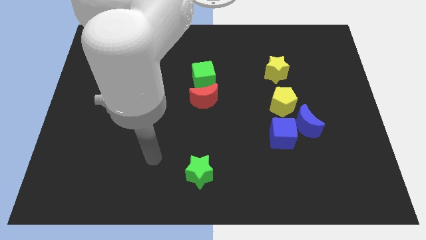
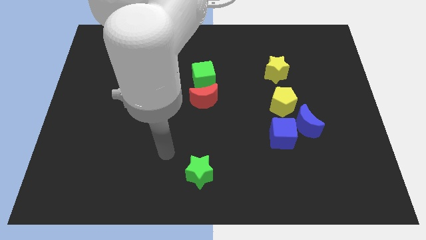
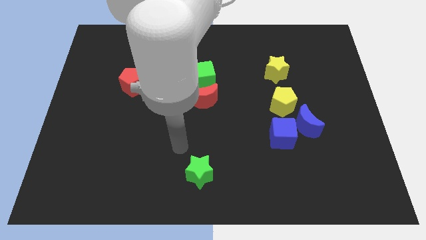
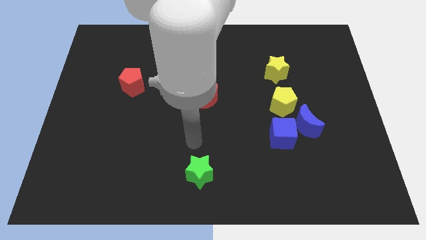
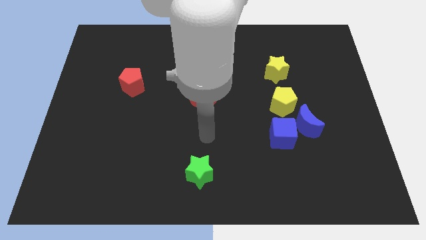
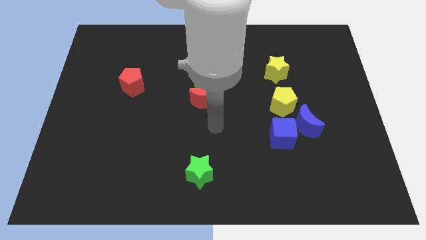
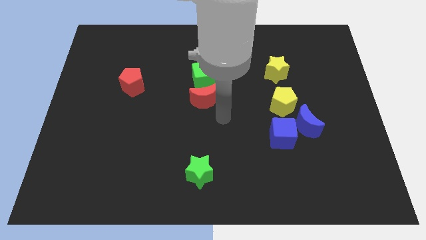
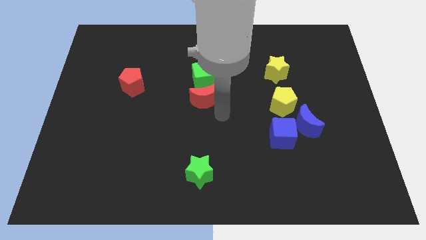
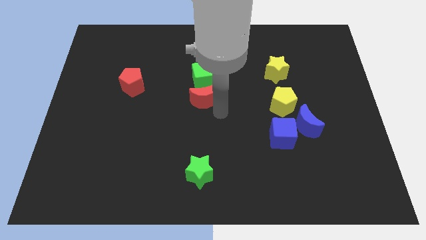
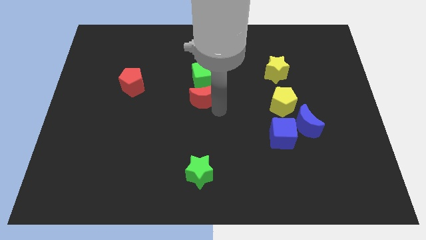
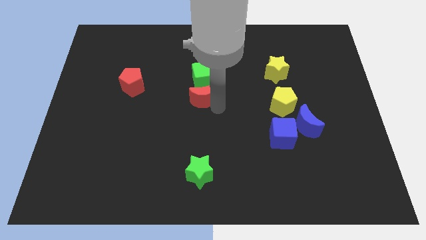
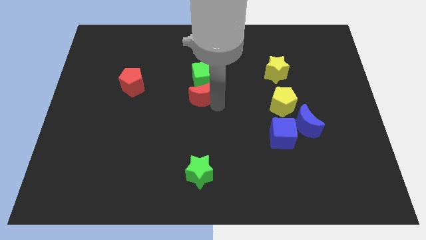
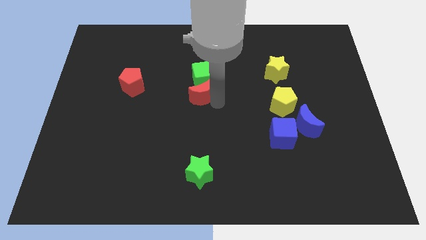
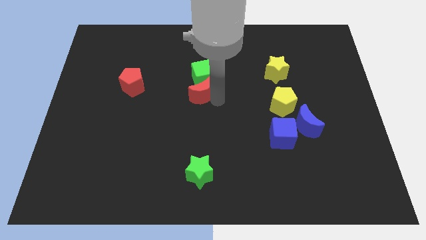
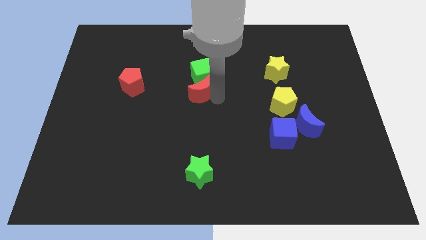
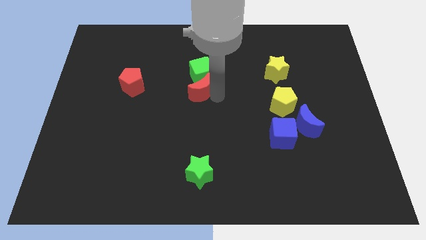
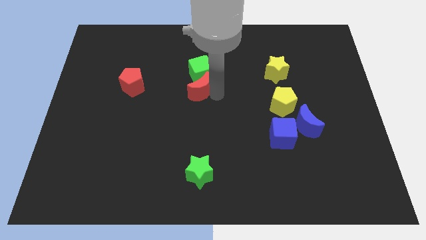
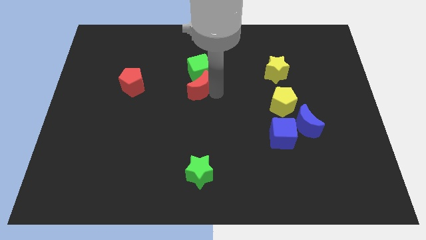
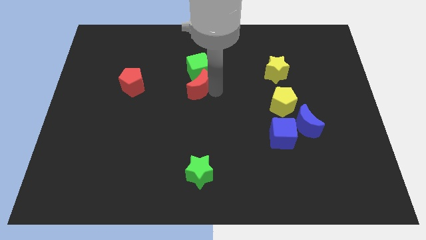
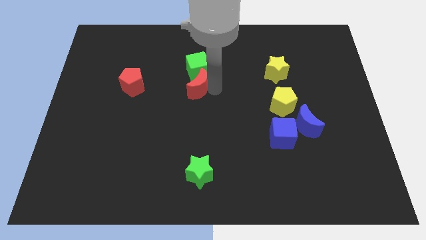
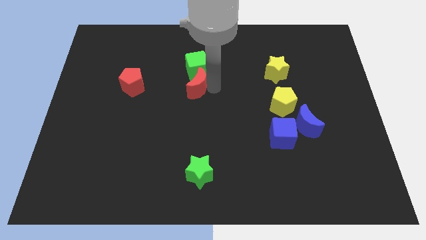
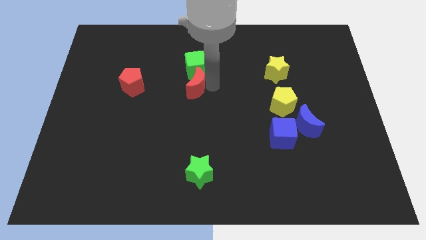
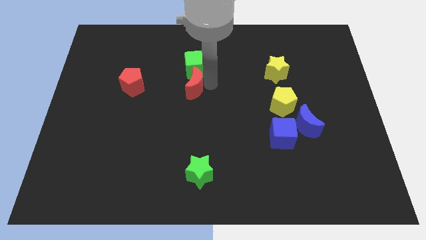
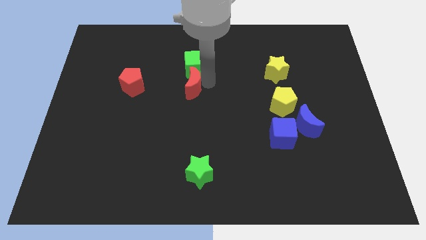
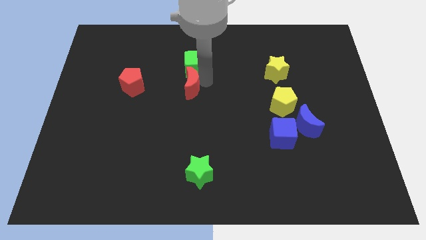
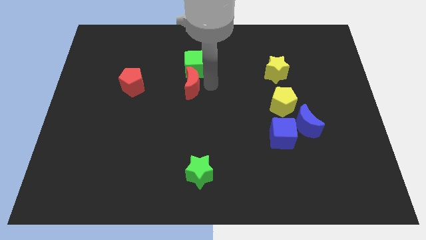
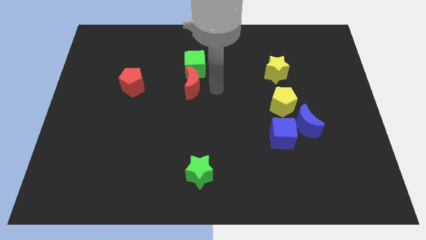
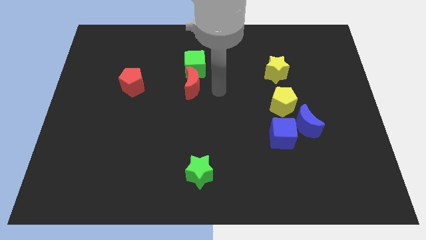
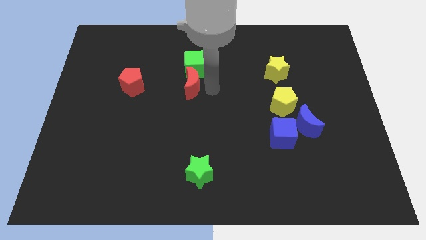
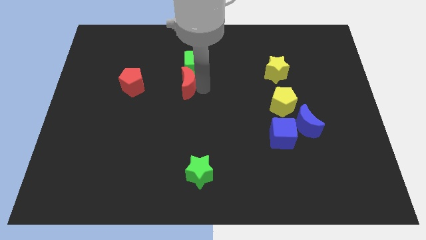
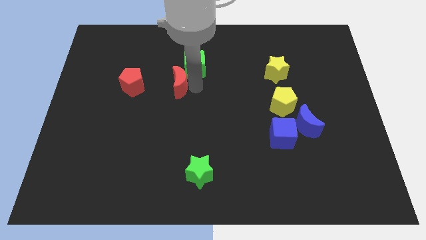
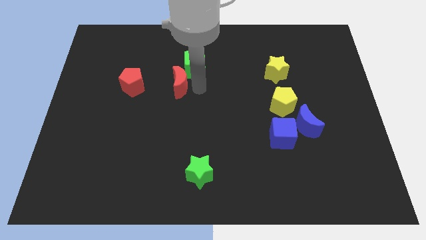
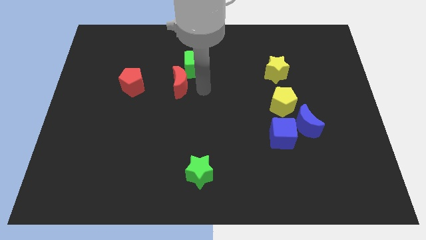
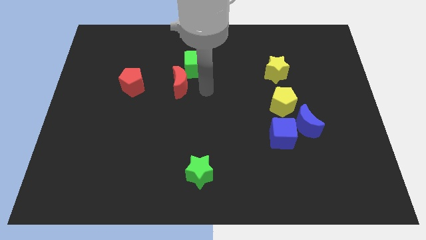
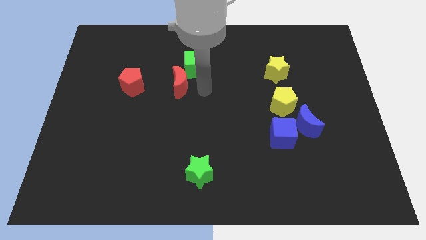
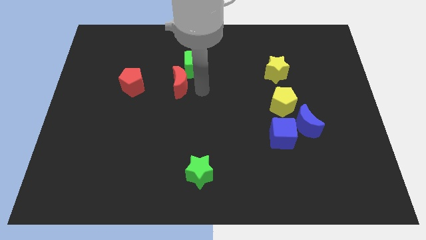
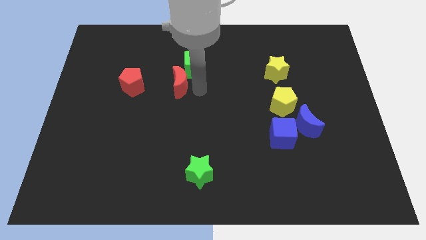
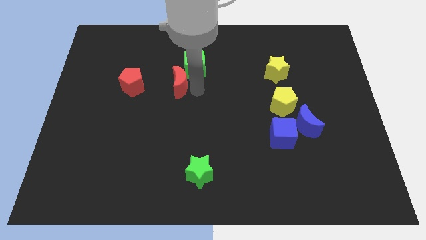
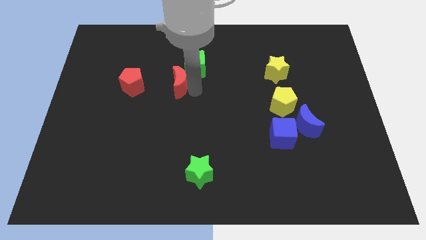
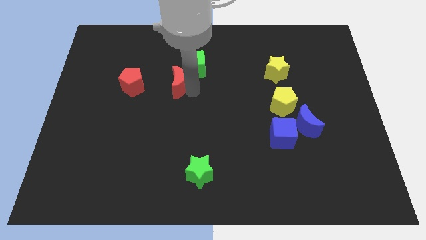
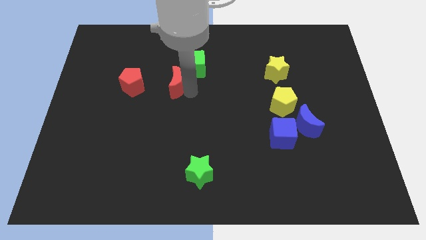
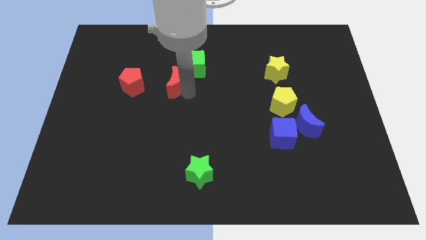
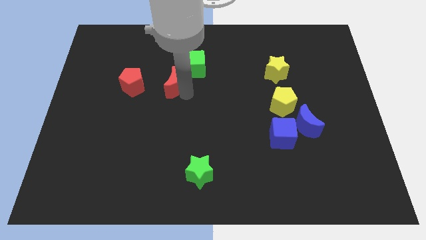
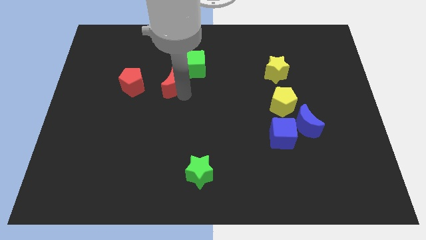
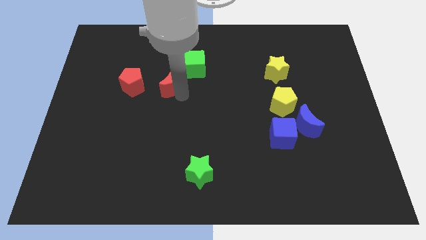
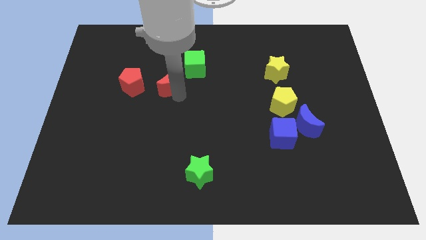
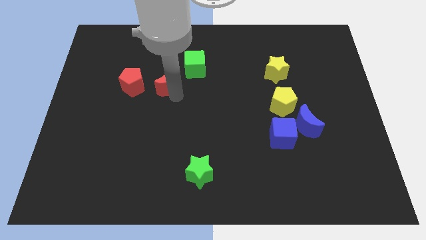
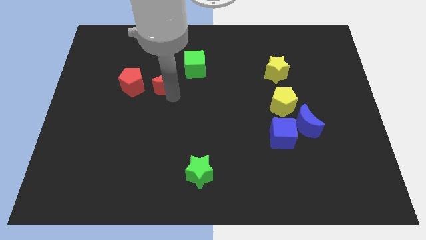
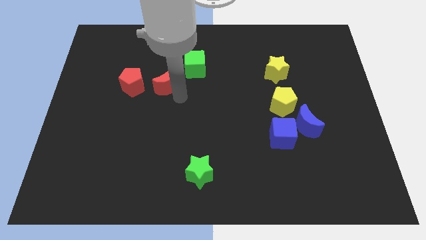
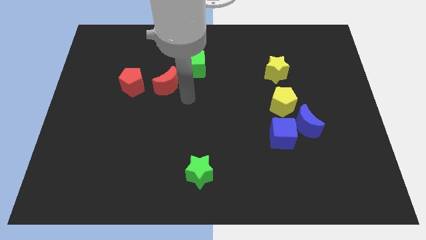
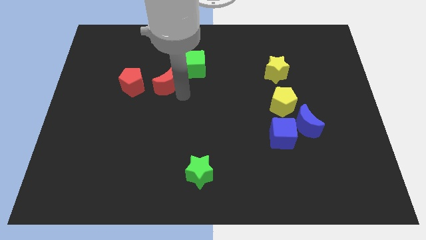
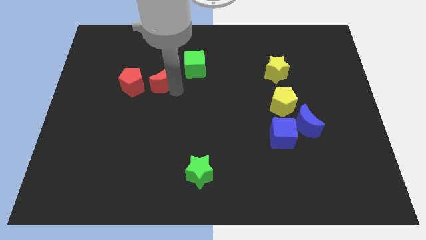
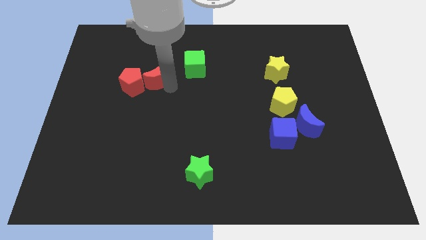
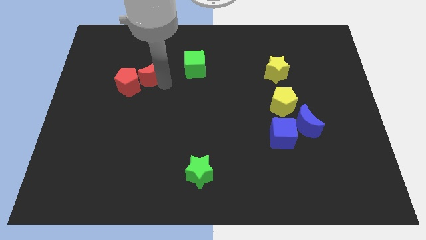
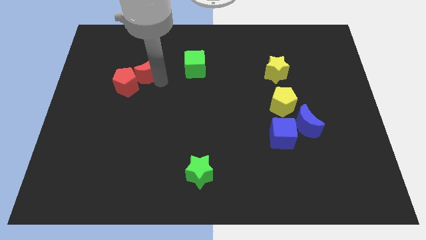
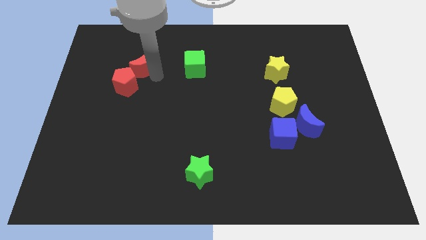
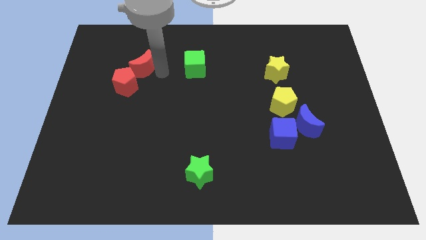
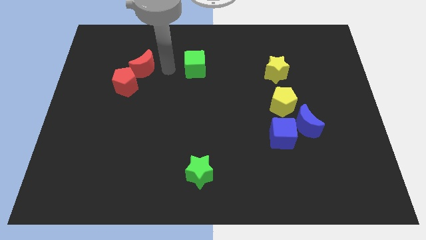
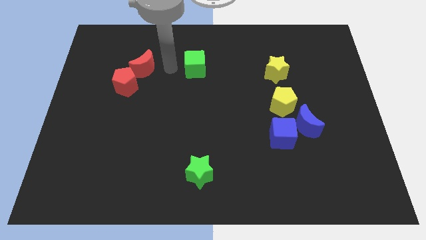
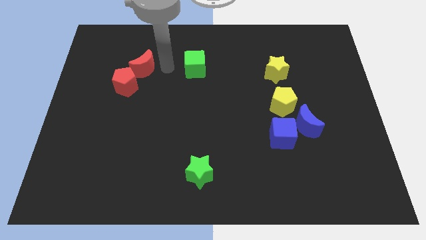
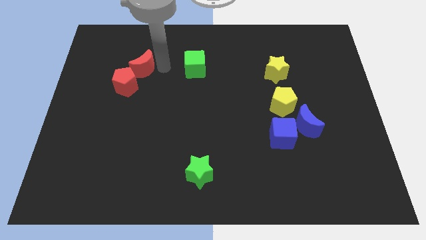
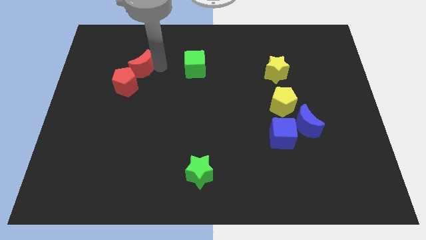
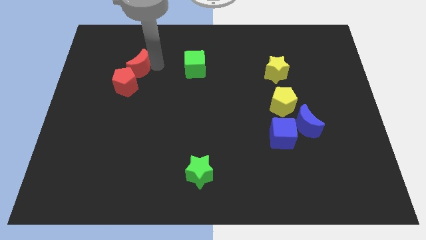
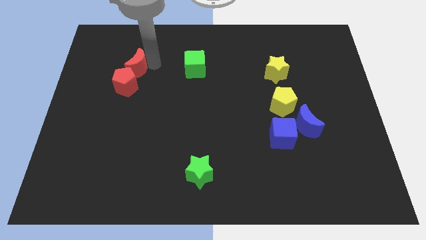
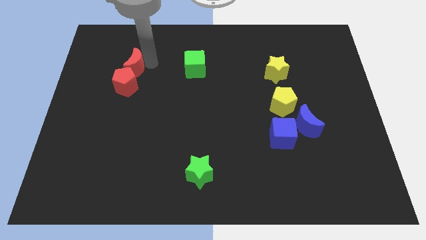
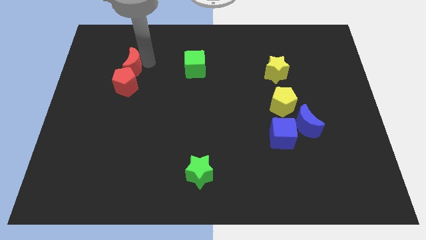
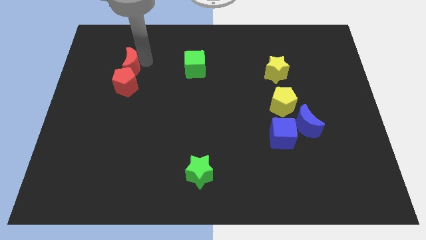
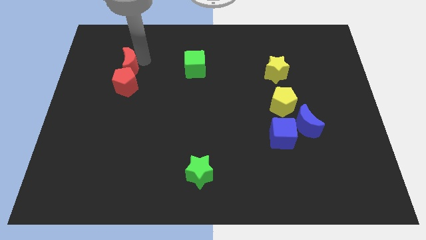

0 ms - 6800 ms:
slide the red moon to the top left side of the red pentagon

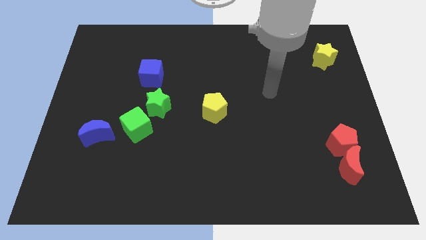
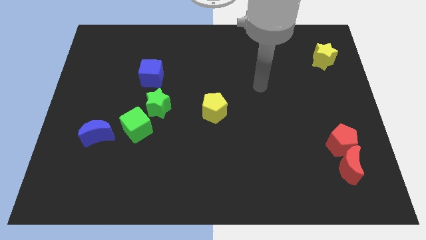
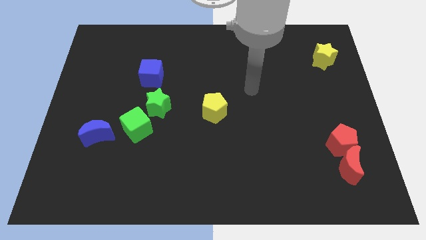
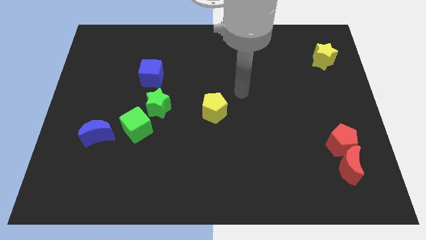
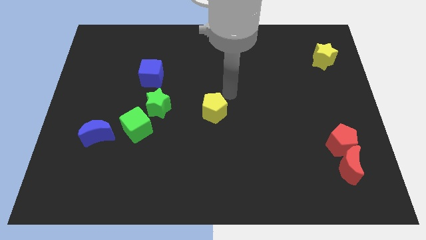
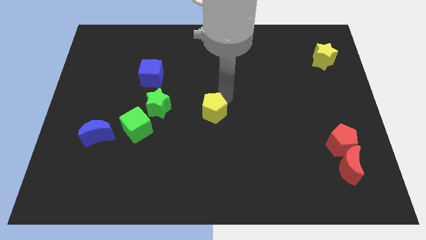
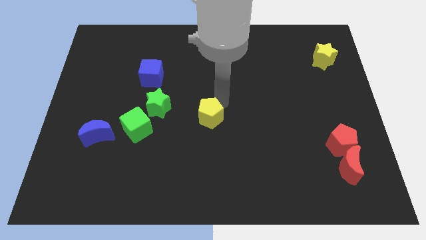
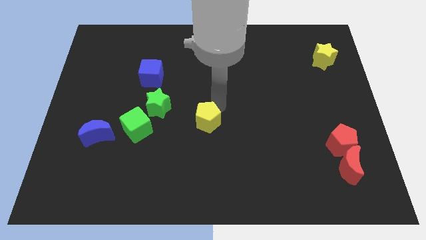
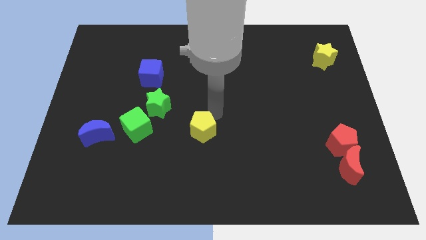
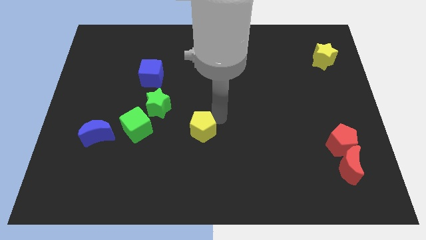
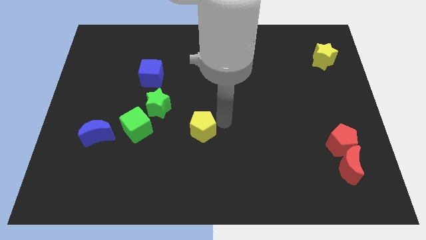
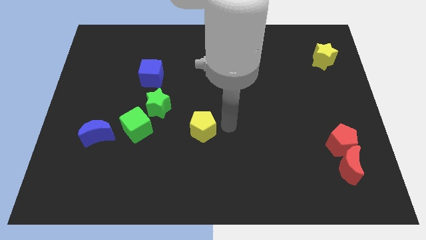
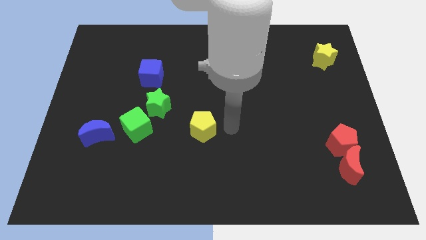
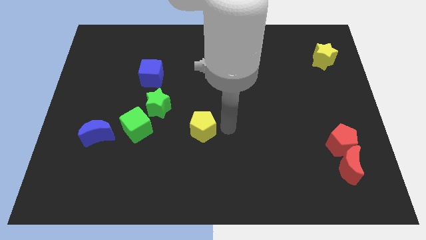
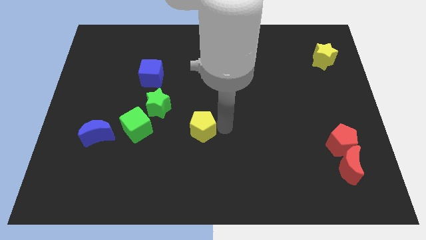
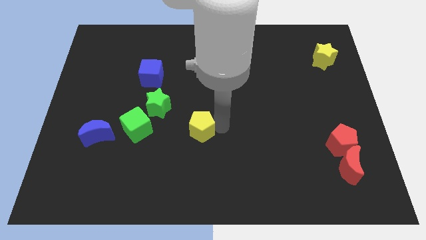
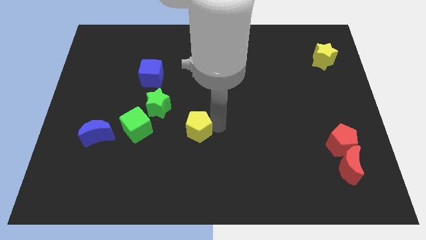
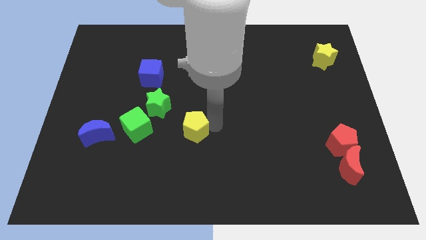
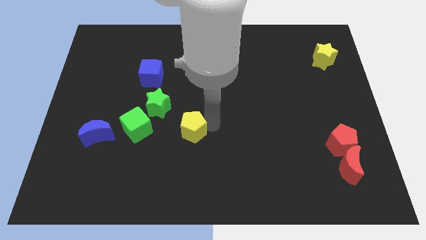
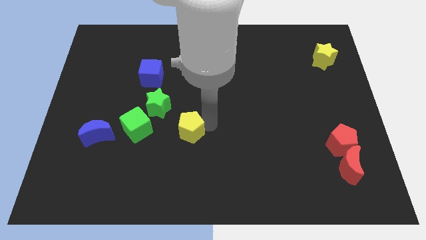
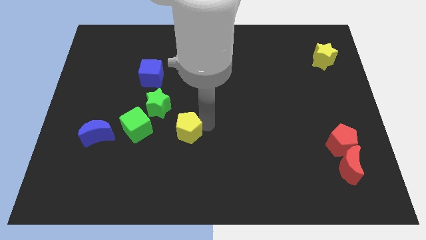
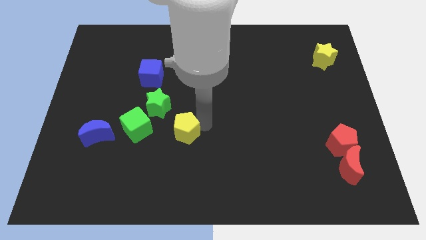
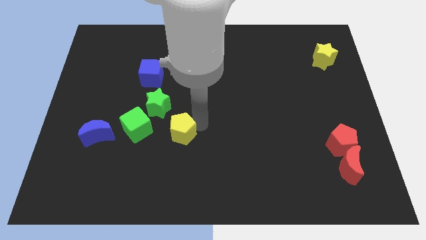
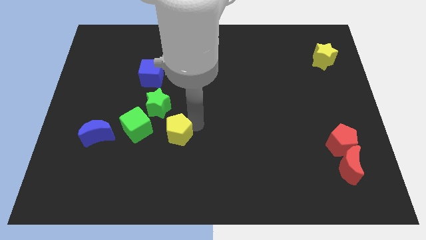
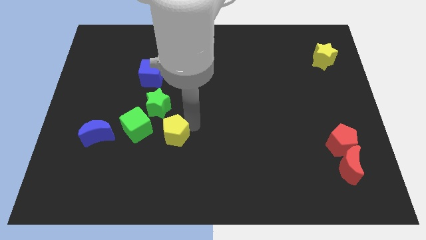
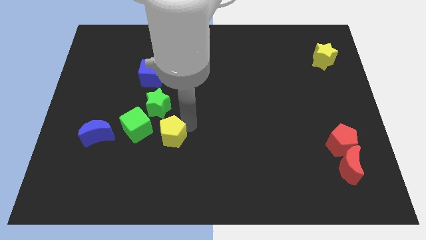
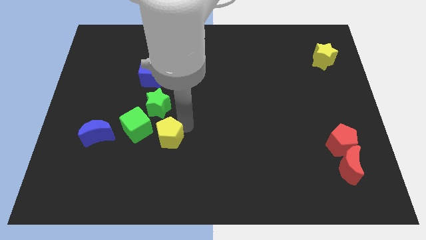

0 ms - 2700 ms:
put the yellow pentagon right of the blue moon
